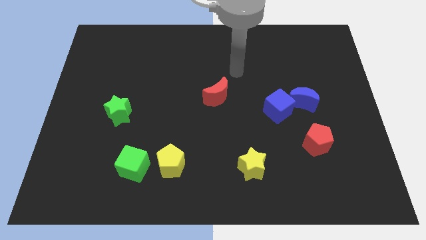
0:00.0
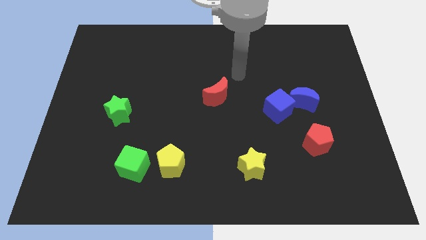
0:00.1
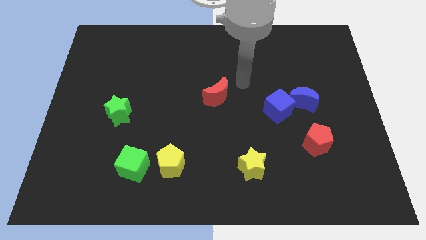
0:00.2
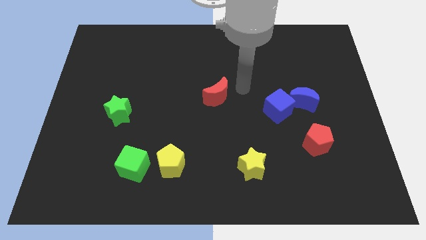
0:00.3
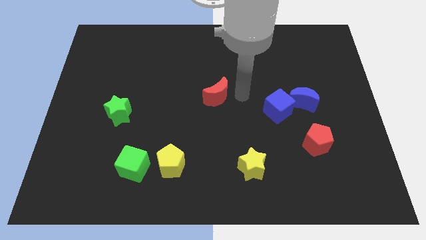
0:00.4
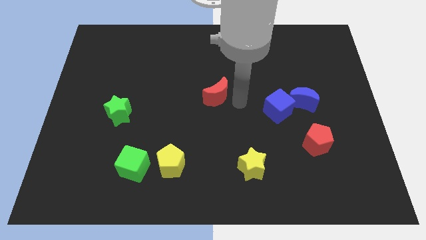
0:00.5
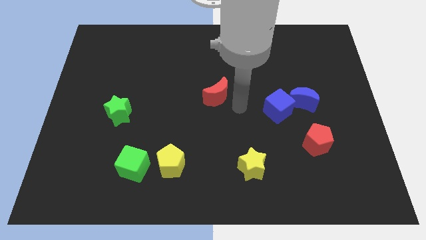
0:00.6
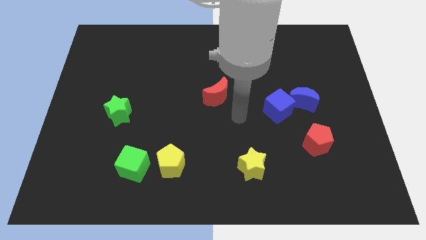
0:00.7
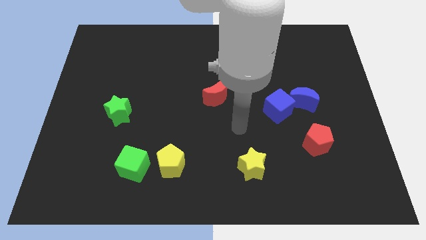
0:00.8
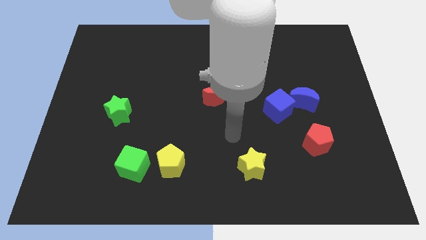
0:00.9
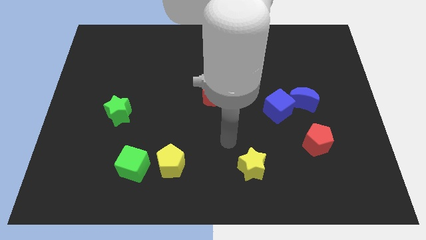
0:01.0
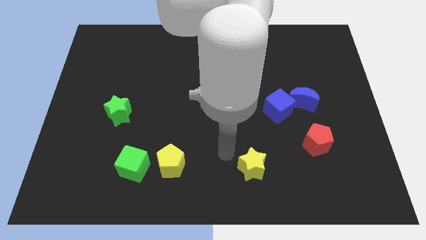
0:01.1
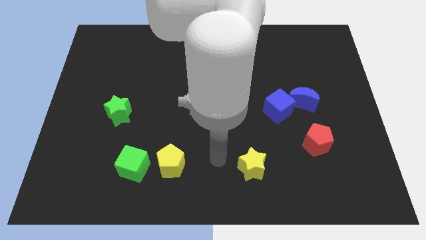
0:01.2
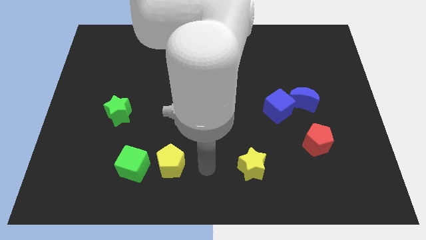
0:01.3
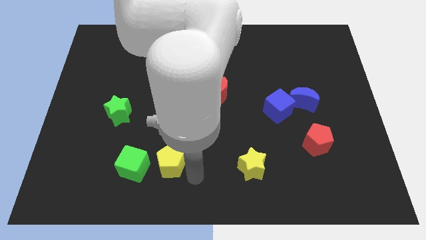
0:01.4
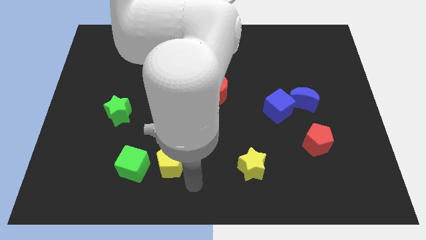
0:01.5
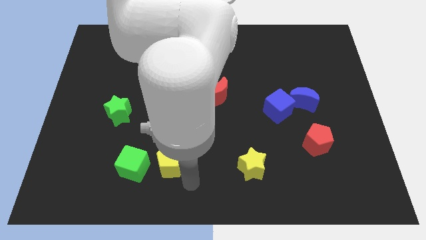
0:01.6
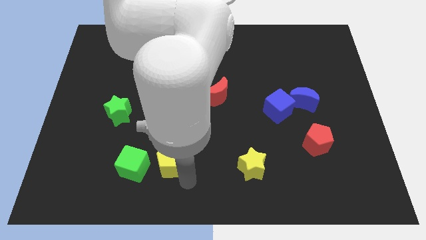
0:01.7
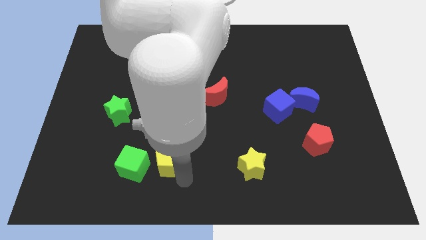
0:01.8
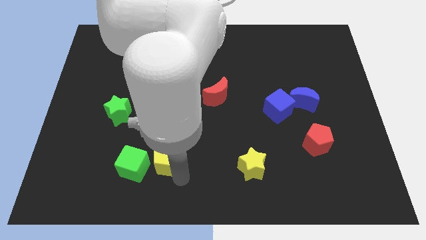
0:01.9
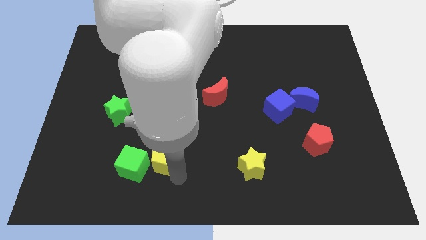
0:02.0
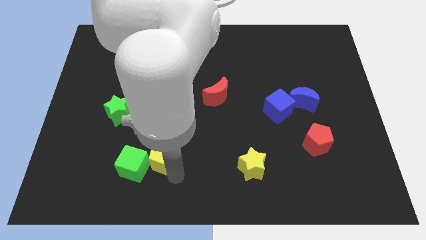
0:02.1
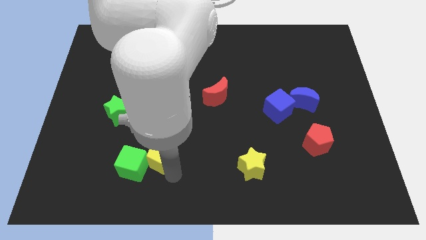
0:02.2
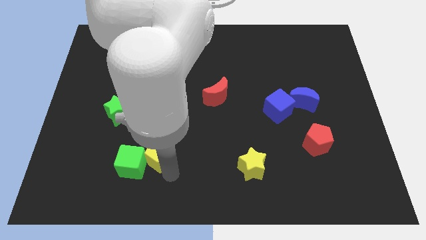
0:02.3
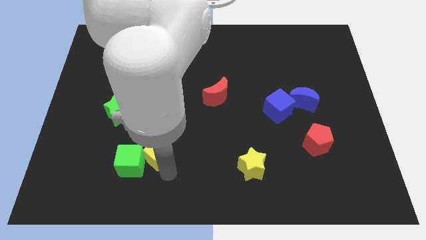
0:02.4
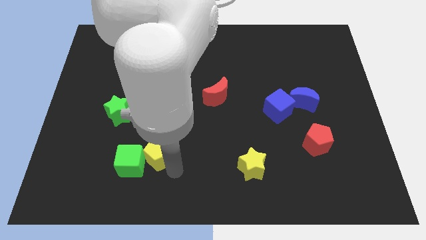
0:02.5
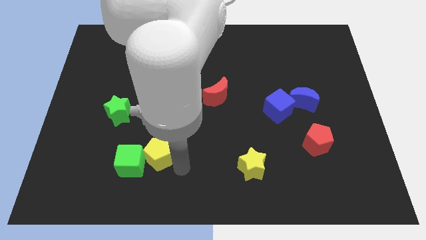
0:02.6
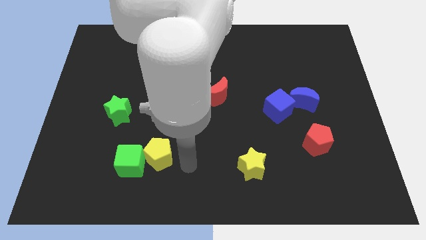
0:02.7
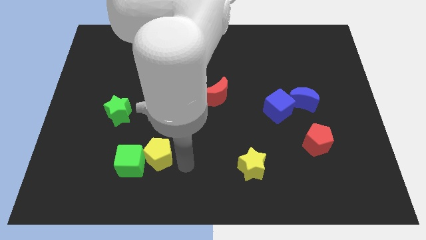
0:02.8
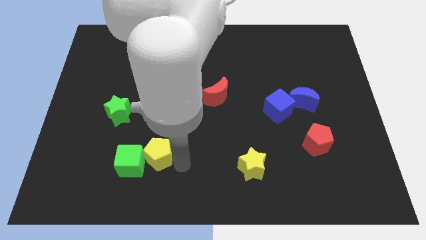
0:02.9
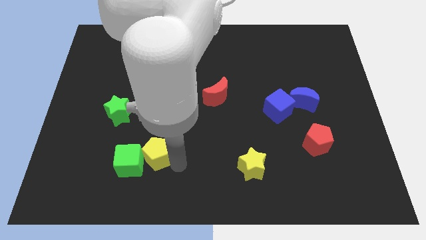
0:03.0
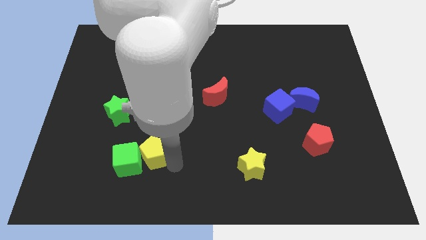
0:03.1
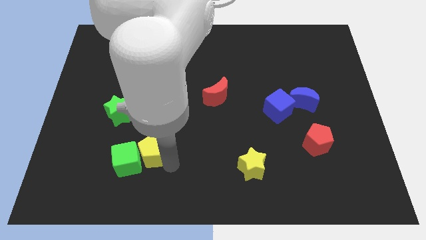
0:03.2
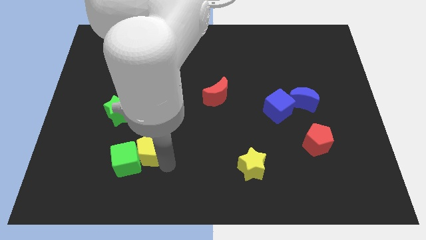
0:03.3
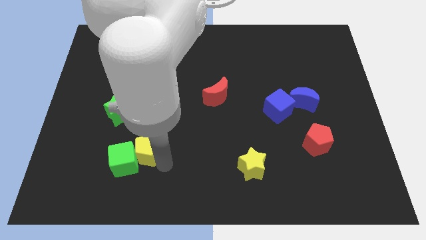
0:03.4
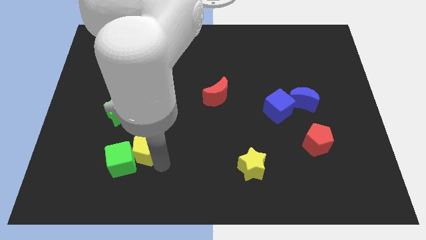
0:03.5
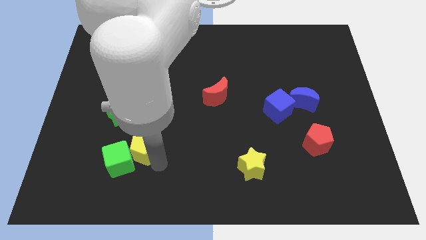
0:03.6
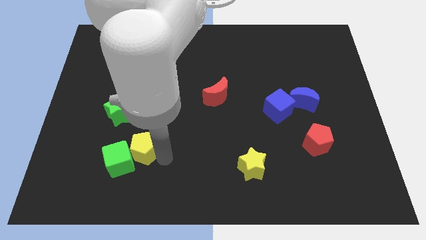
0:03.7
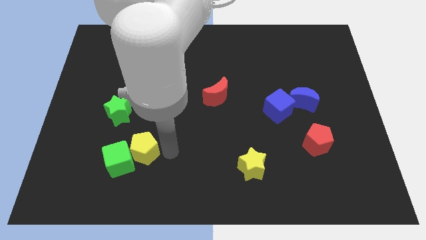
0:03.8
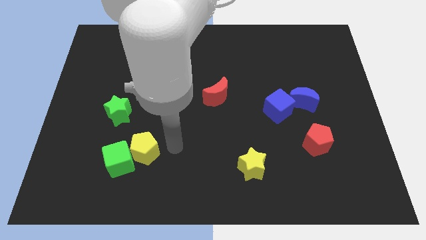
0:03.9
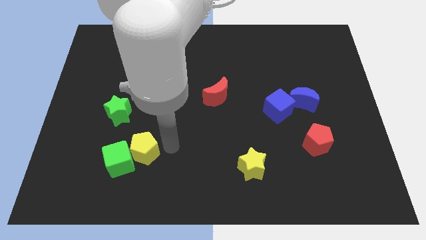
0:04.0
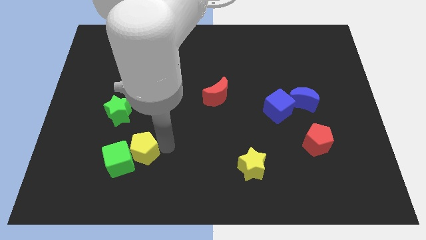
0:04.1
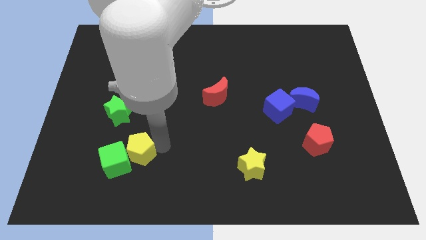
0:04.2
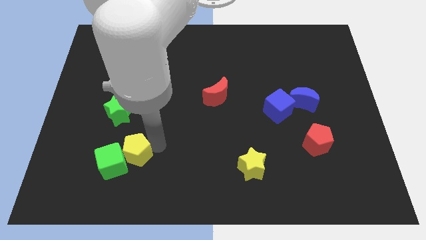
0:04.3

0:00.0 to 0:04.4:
slightly push the yellow pentagon left

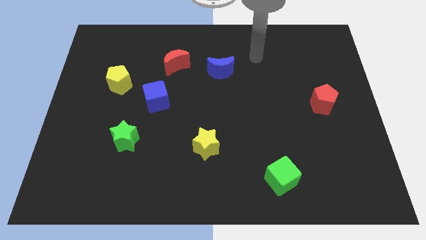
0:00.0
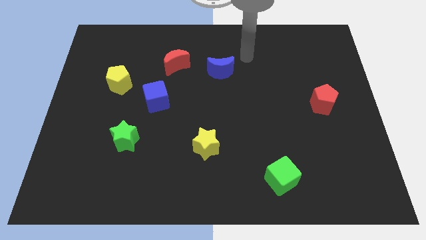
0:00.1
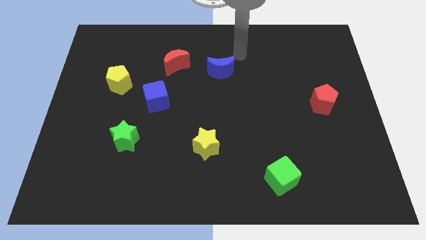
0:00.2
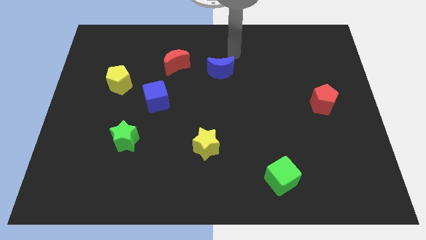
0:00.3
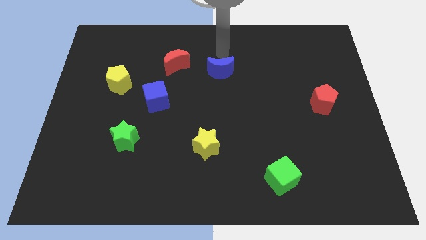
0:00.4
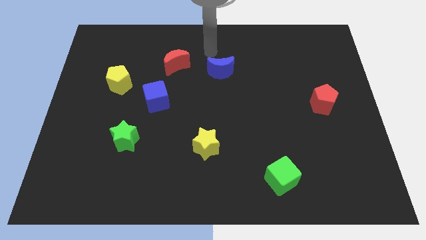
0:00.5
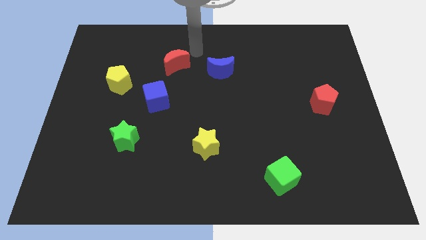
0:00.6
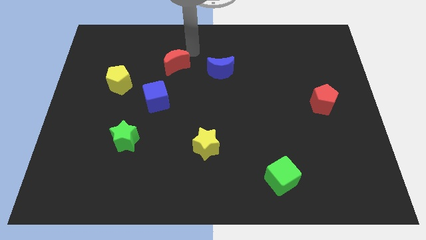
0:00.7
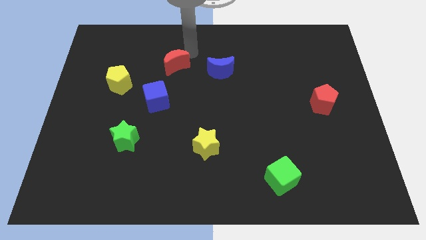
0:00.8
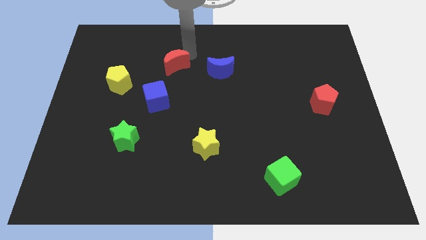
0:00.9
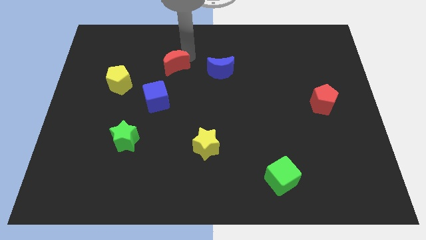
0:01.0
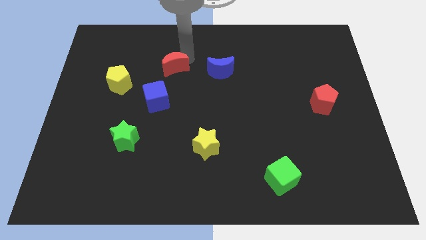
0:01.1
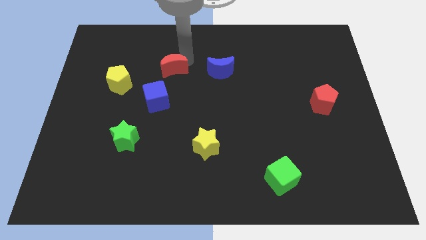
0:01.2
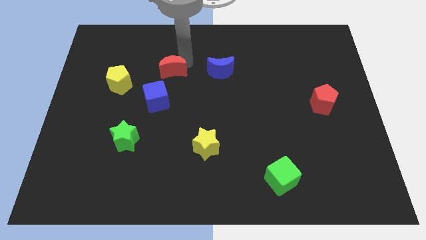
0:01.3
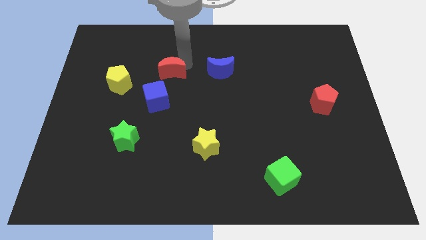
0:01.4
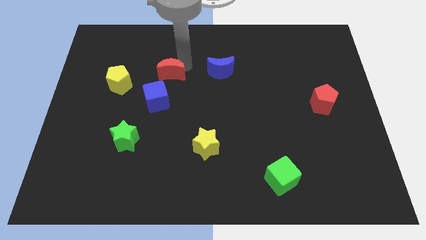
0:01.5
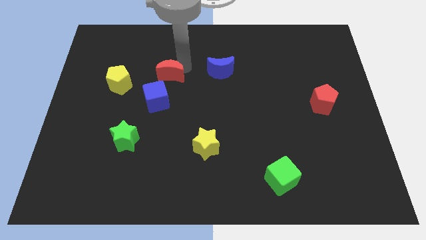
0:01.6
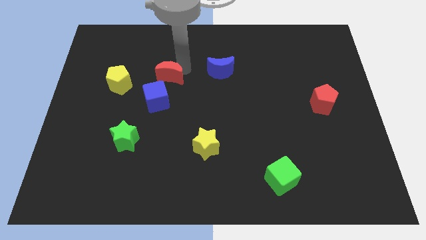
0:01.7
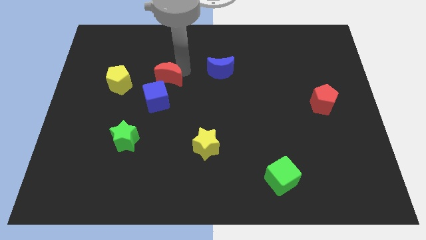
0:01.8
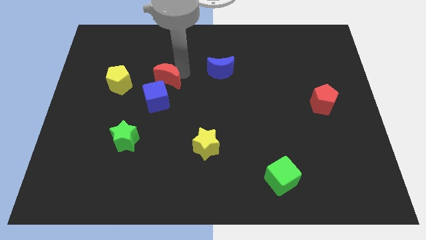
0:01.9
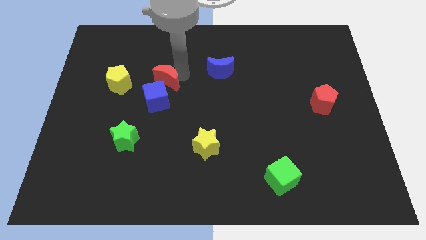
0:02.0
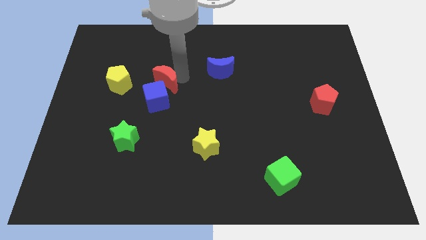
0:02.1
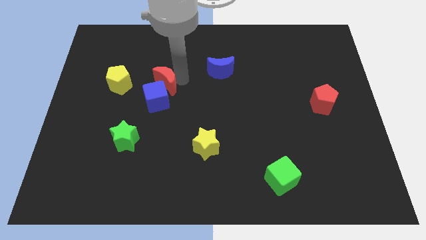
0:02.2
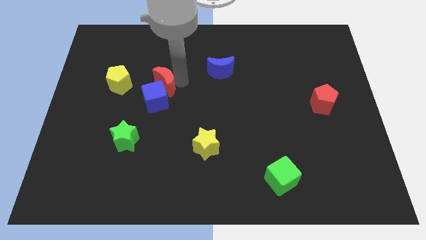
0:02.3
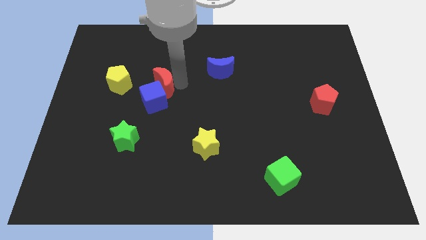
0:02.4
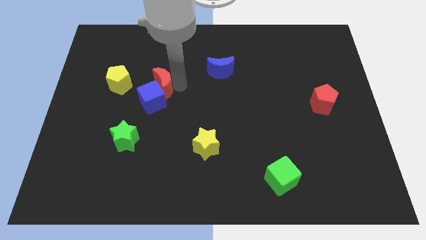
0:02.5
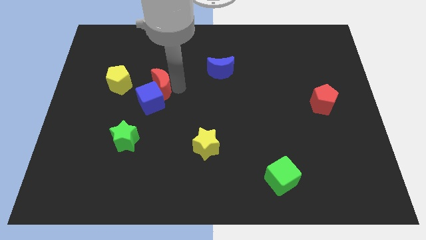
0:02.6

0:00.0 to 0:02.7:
push the red moon a little downwards and to the left

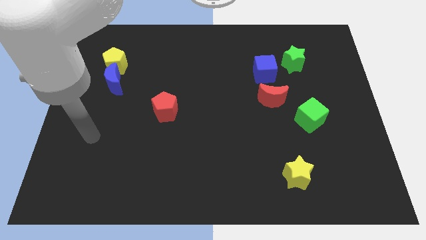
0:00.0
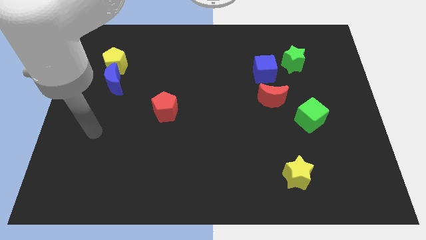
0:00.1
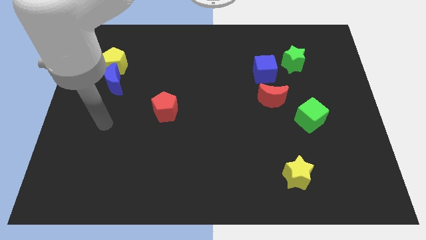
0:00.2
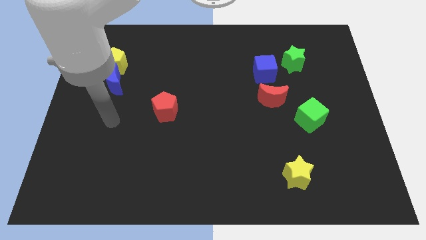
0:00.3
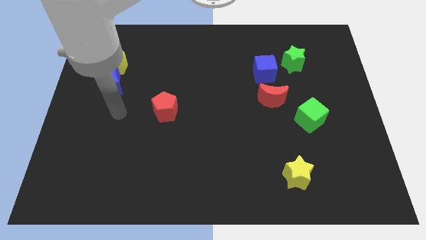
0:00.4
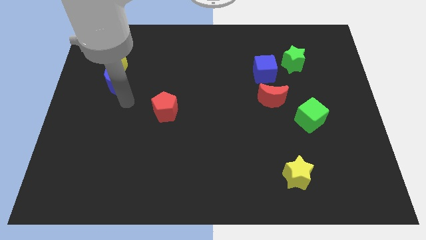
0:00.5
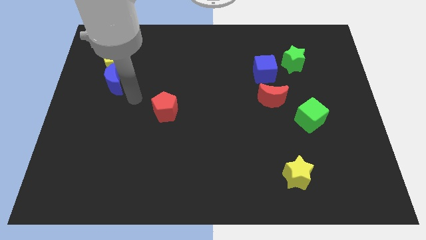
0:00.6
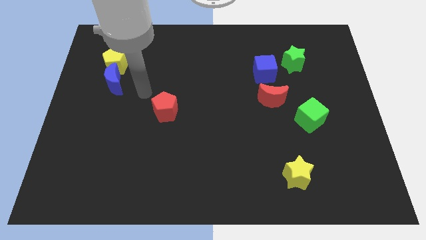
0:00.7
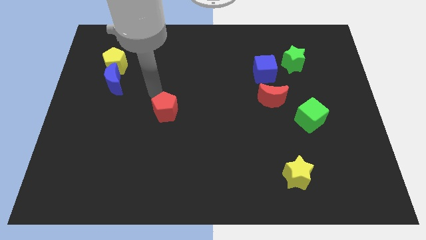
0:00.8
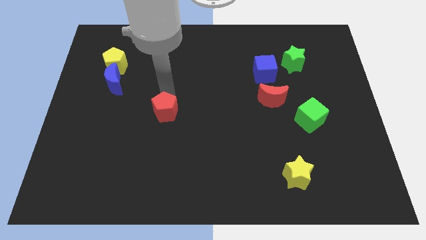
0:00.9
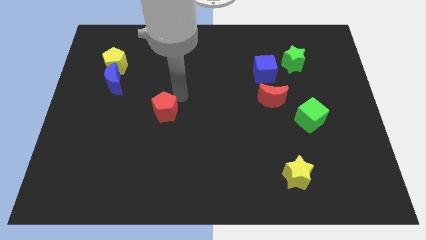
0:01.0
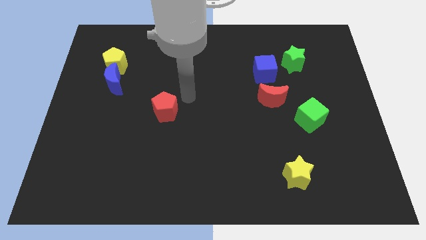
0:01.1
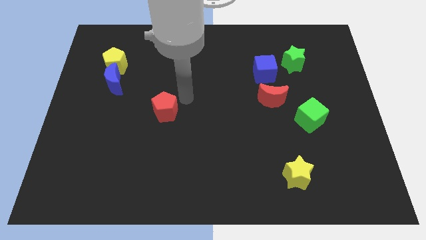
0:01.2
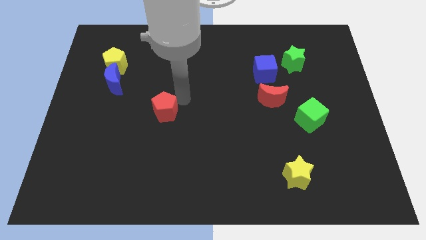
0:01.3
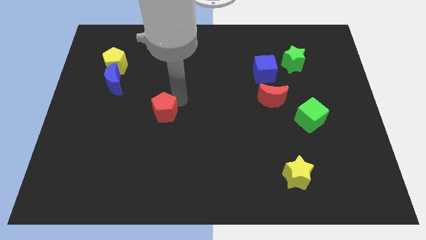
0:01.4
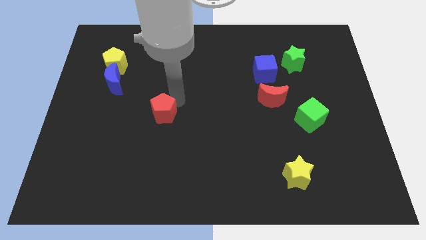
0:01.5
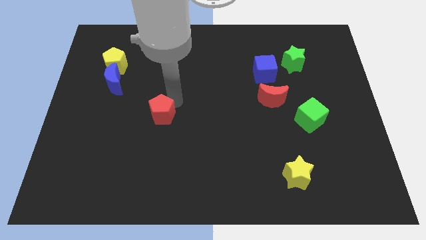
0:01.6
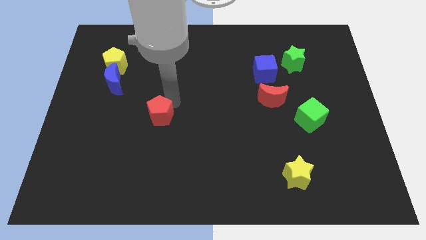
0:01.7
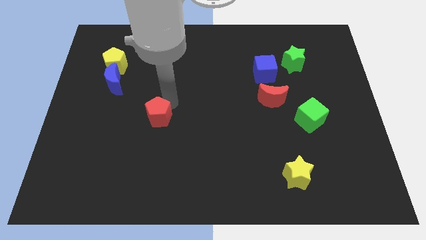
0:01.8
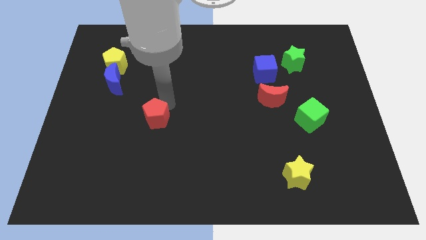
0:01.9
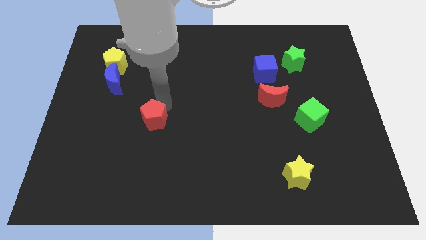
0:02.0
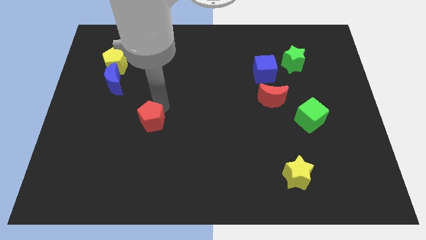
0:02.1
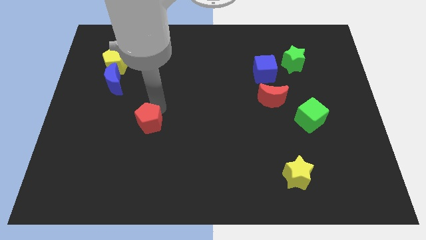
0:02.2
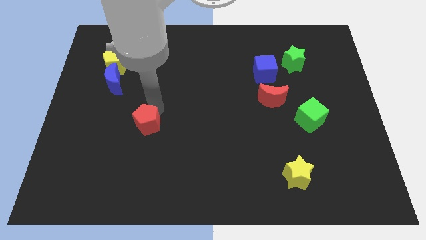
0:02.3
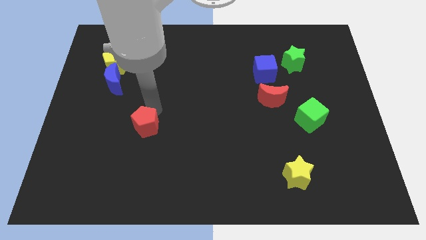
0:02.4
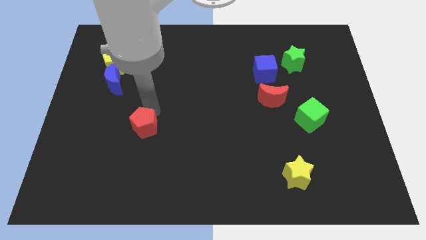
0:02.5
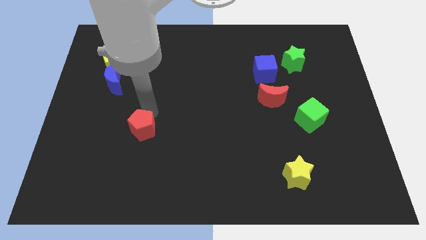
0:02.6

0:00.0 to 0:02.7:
slightly move the red pentagon downwards and then to the left
